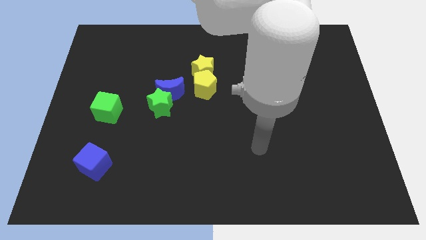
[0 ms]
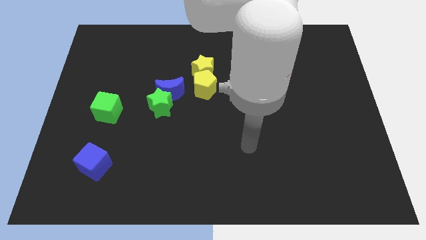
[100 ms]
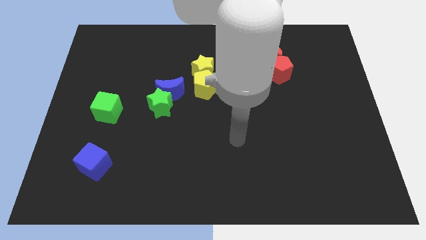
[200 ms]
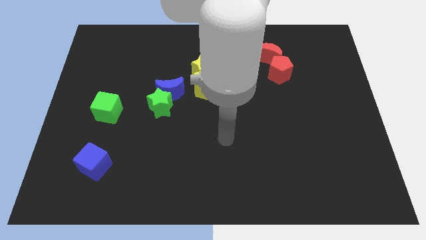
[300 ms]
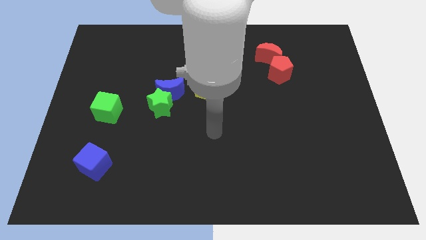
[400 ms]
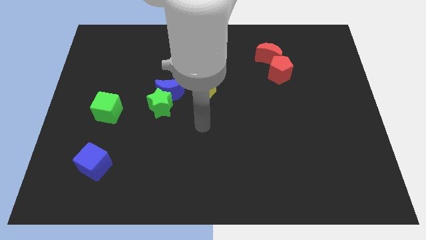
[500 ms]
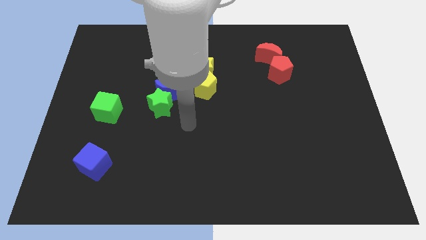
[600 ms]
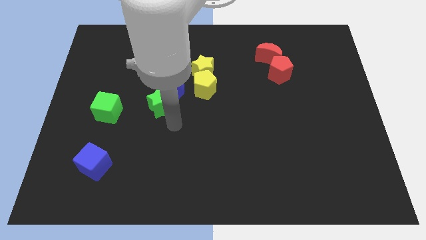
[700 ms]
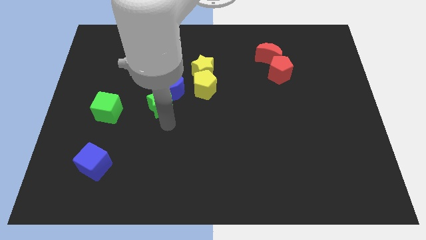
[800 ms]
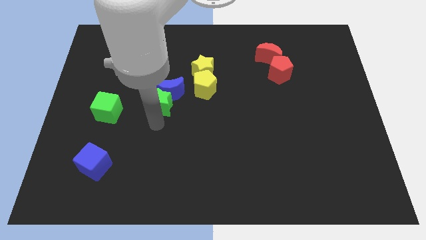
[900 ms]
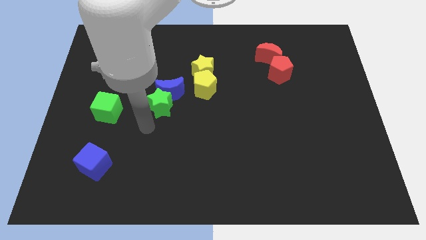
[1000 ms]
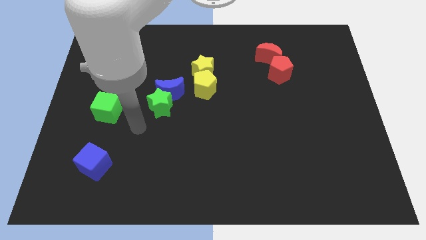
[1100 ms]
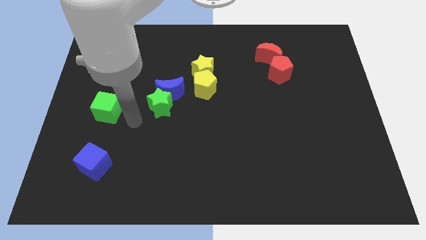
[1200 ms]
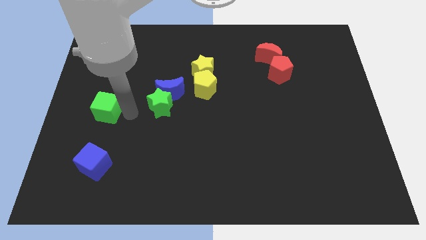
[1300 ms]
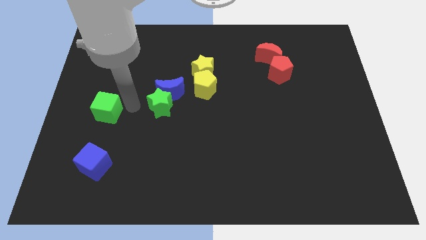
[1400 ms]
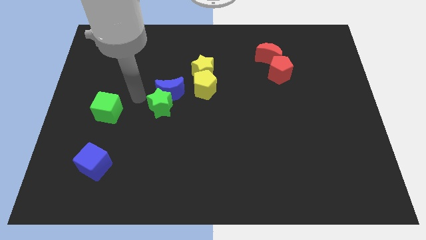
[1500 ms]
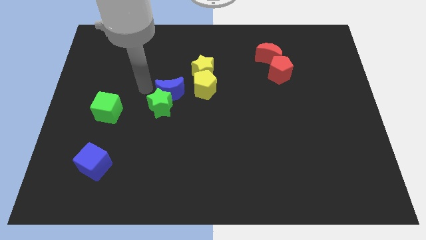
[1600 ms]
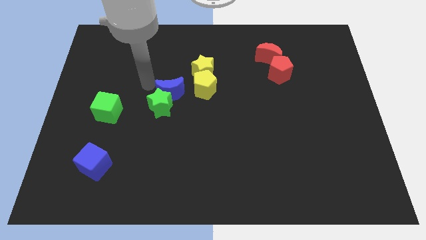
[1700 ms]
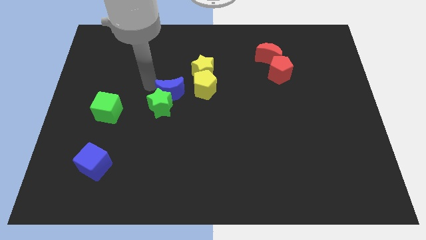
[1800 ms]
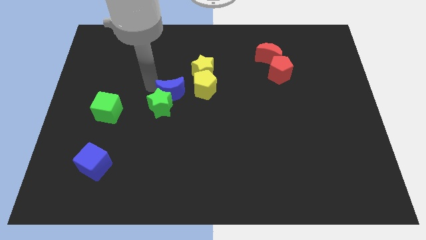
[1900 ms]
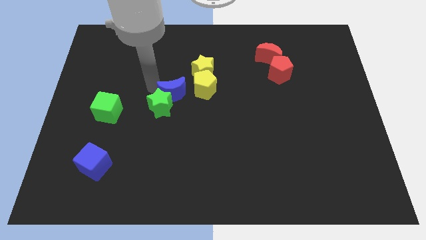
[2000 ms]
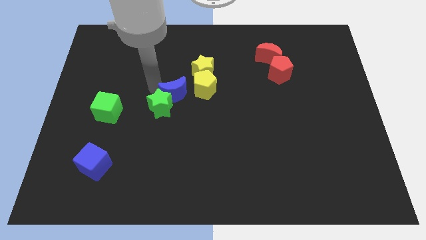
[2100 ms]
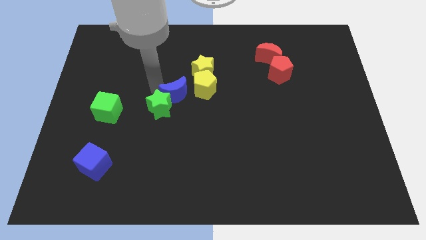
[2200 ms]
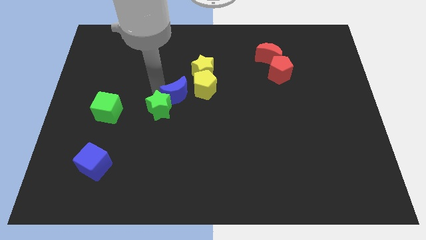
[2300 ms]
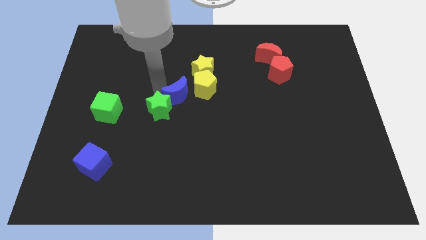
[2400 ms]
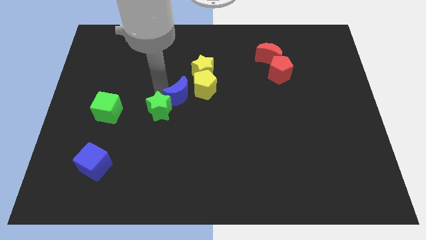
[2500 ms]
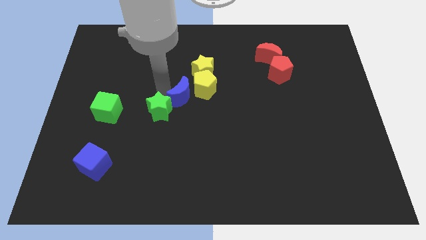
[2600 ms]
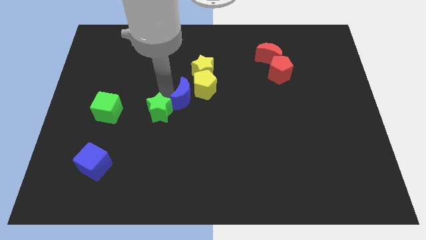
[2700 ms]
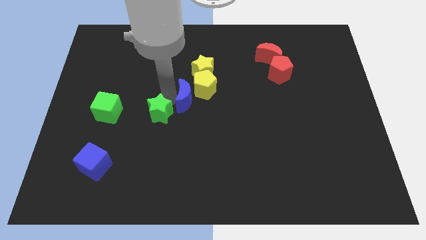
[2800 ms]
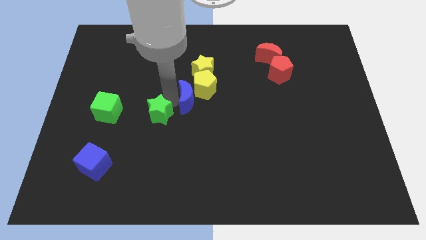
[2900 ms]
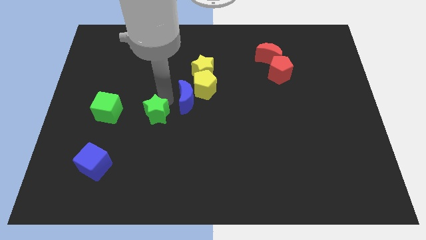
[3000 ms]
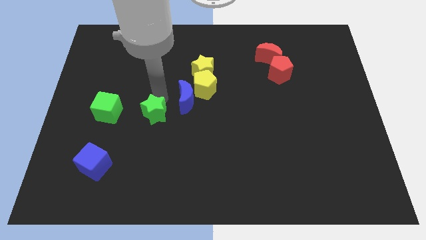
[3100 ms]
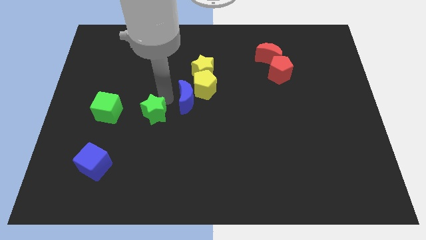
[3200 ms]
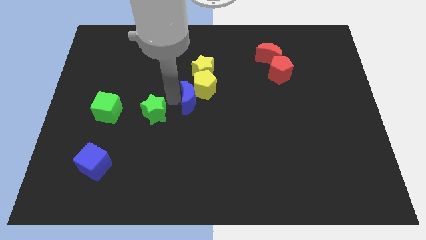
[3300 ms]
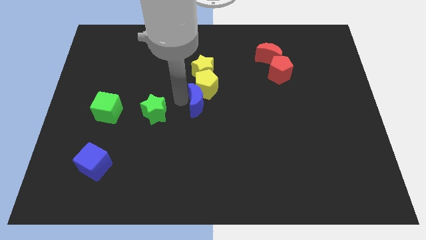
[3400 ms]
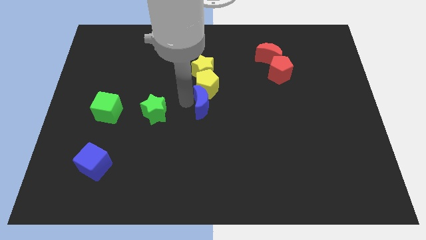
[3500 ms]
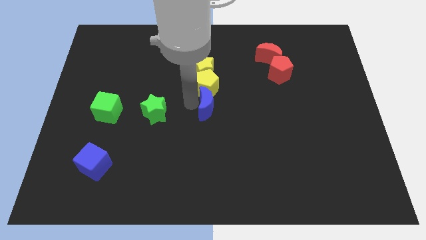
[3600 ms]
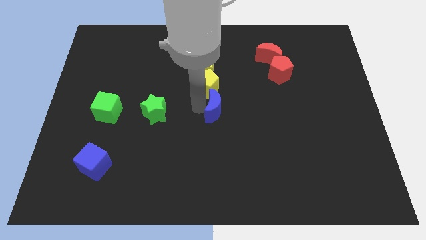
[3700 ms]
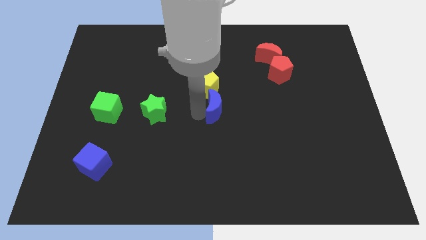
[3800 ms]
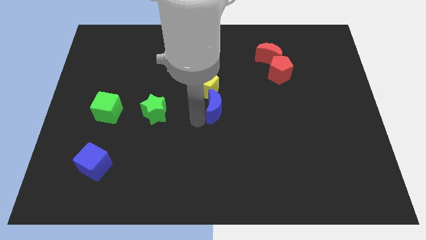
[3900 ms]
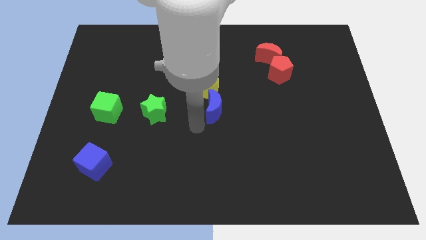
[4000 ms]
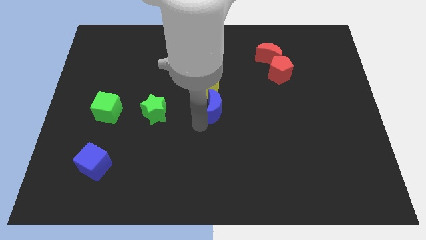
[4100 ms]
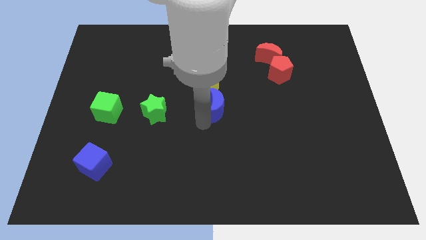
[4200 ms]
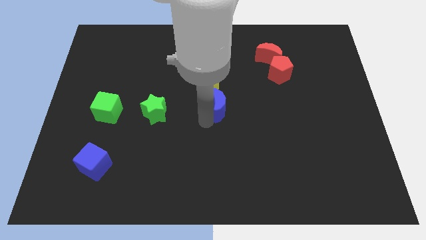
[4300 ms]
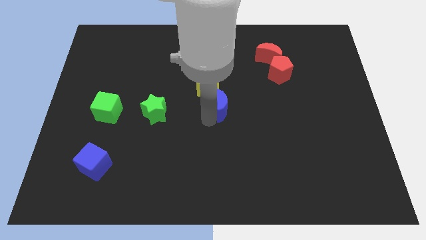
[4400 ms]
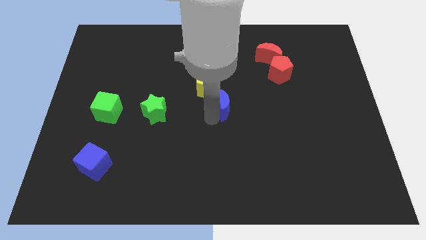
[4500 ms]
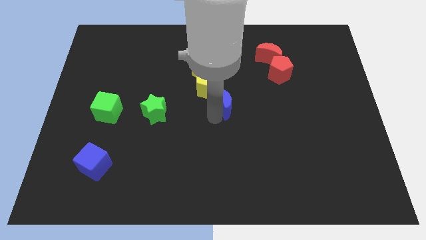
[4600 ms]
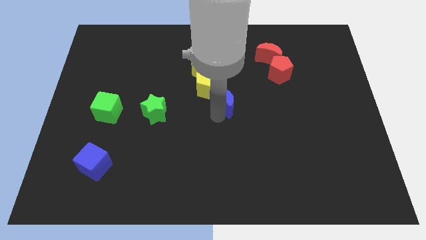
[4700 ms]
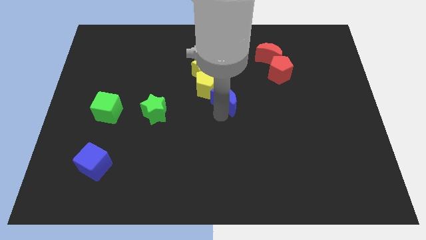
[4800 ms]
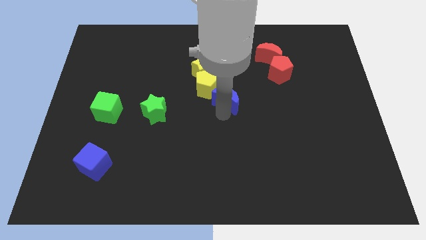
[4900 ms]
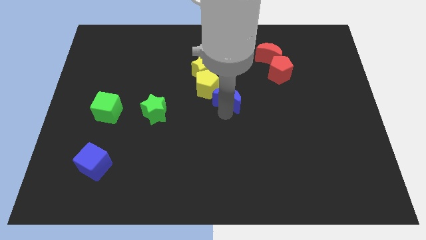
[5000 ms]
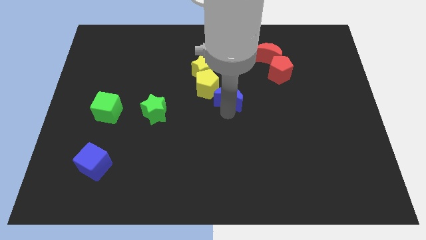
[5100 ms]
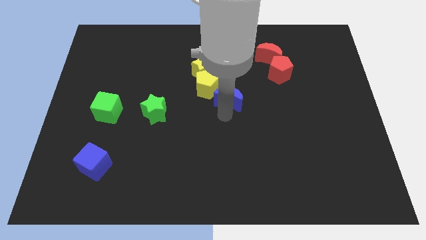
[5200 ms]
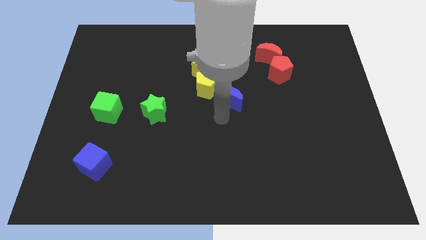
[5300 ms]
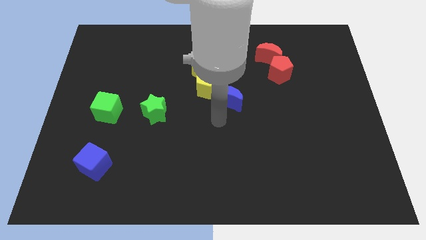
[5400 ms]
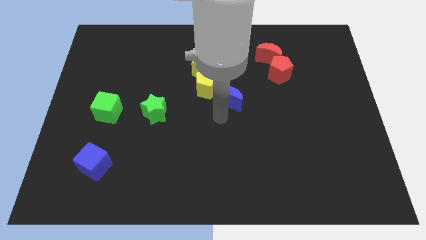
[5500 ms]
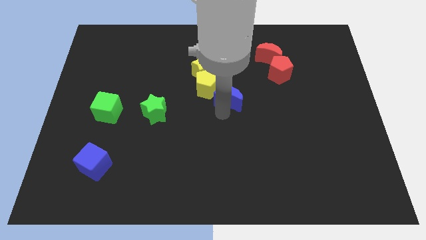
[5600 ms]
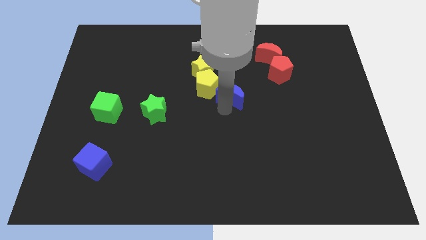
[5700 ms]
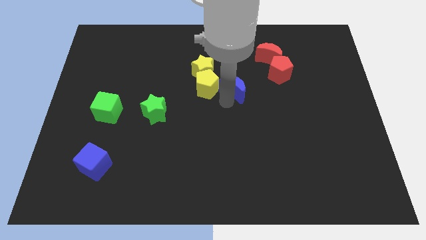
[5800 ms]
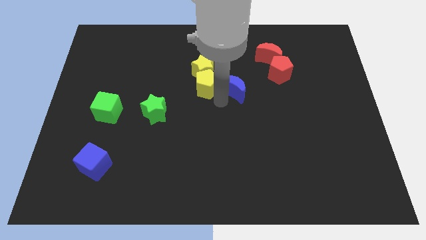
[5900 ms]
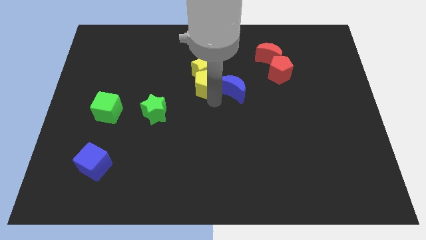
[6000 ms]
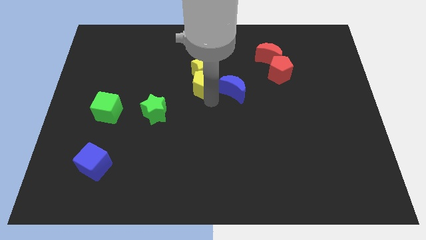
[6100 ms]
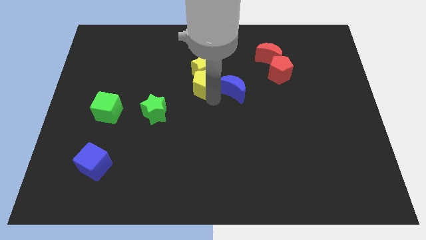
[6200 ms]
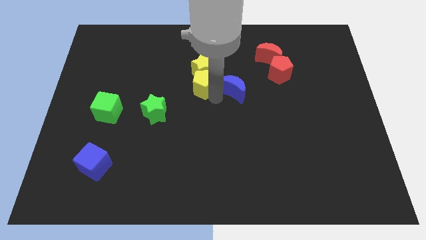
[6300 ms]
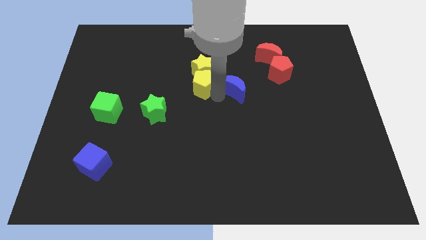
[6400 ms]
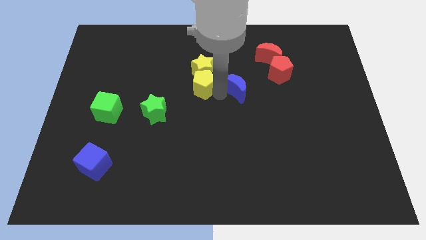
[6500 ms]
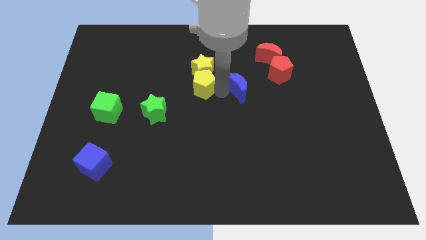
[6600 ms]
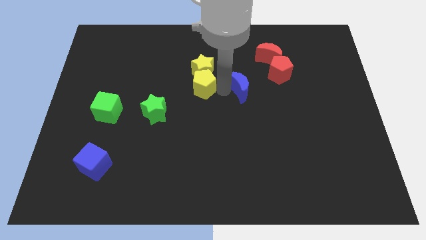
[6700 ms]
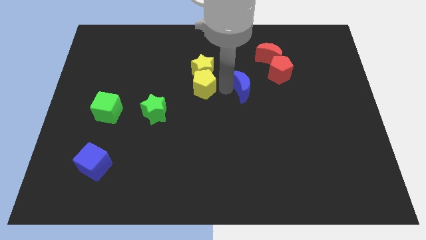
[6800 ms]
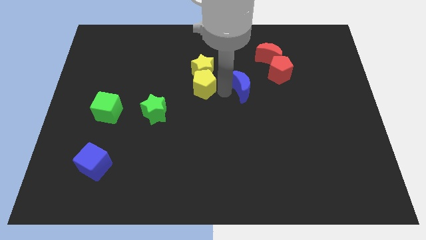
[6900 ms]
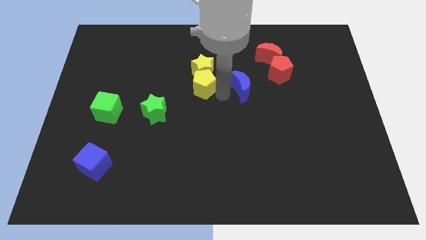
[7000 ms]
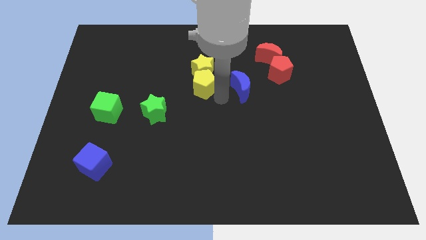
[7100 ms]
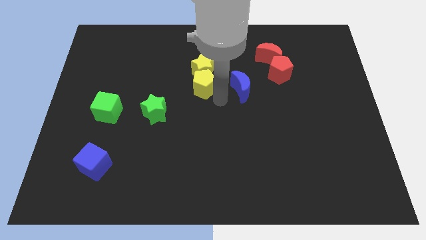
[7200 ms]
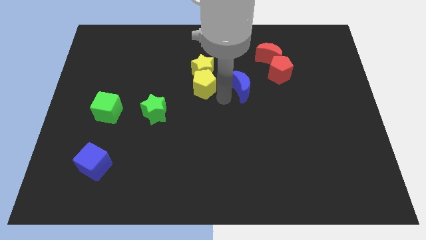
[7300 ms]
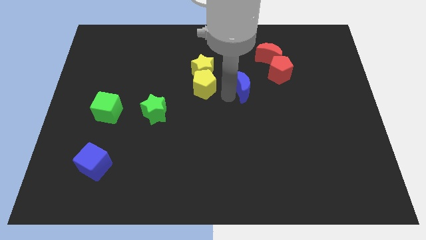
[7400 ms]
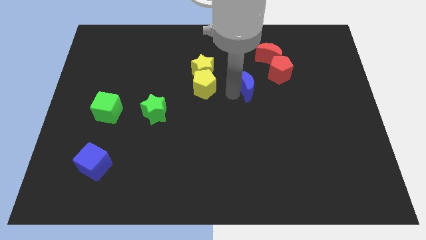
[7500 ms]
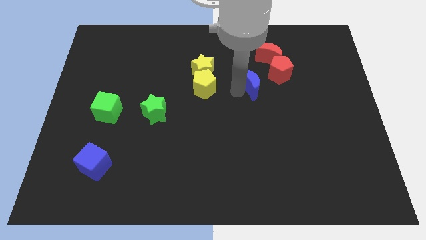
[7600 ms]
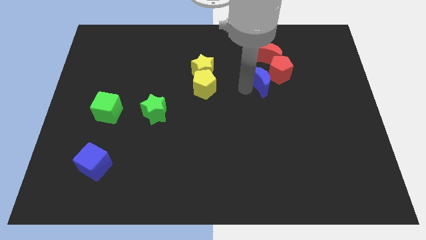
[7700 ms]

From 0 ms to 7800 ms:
push the blue moon next to the red pentagon
